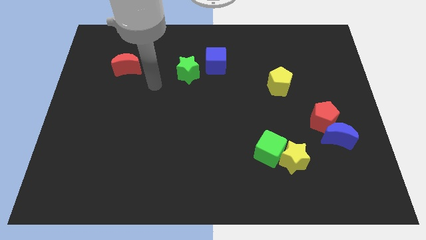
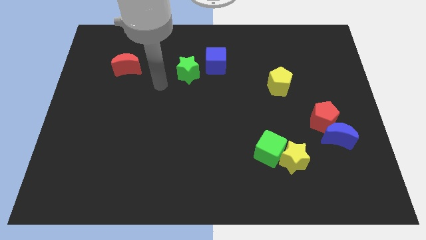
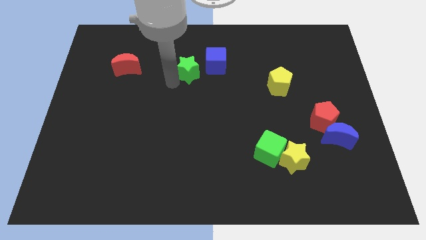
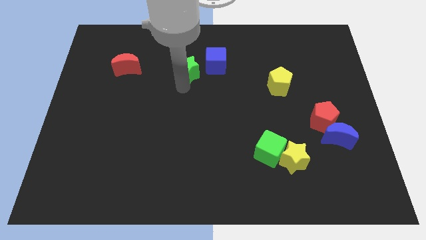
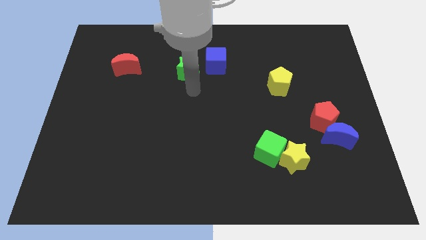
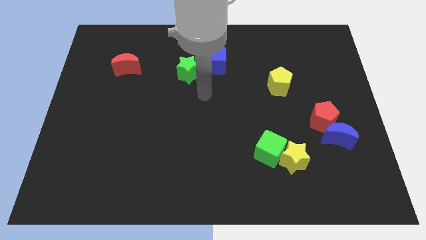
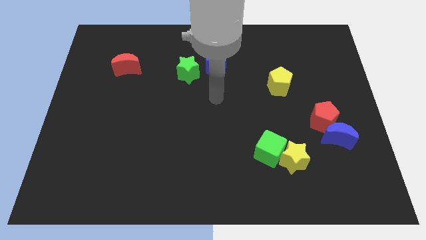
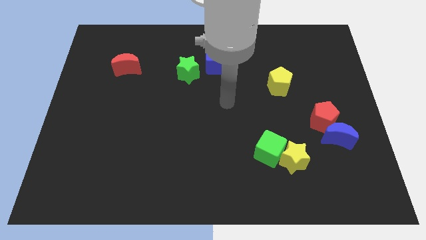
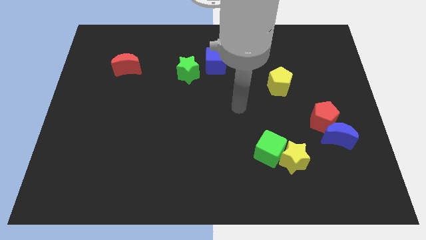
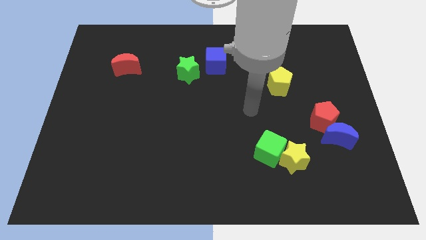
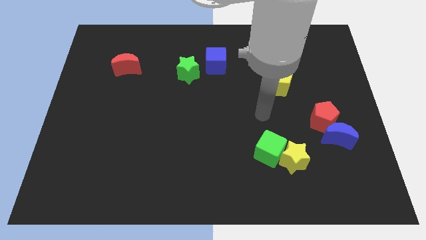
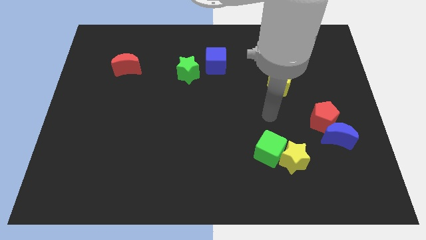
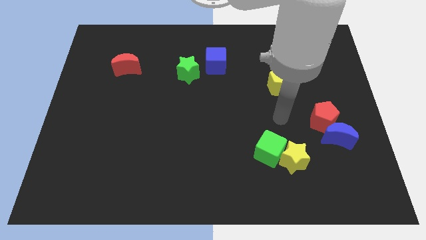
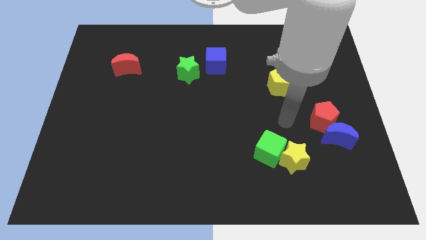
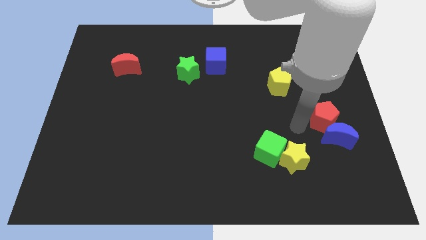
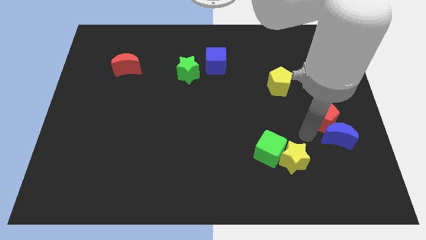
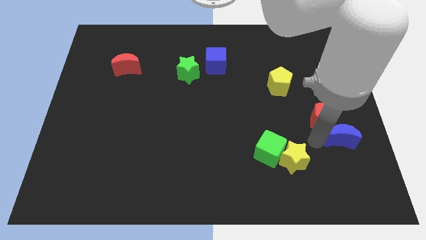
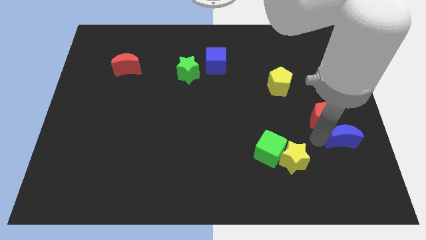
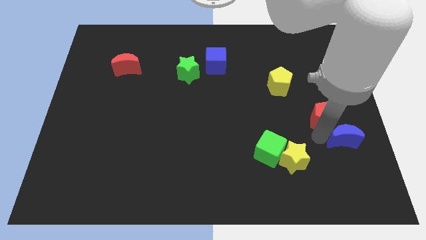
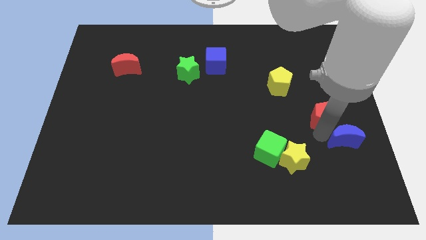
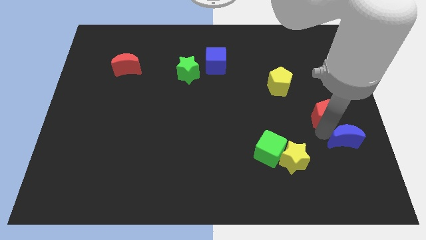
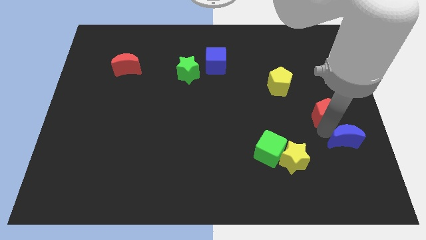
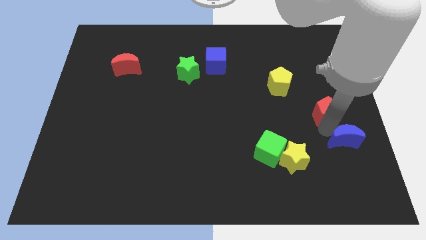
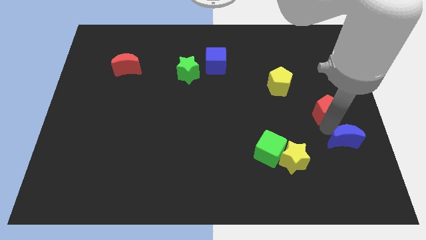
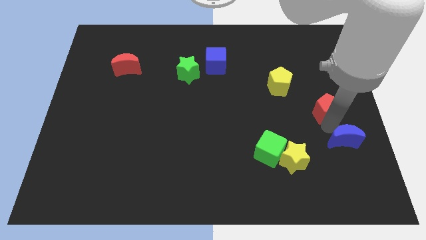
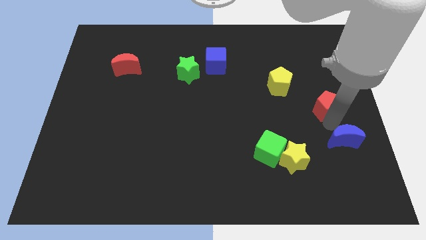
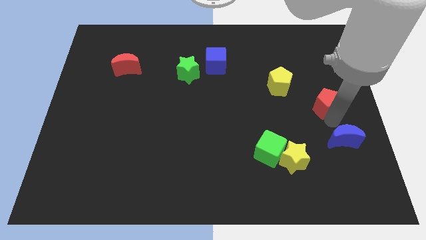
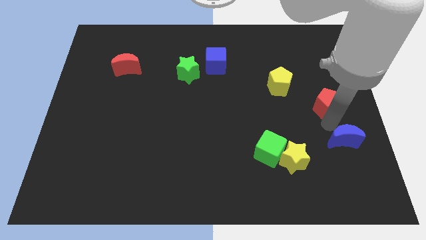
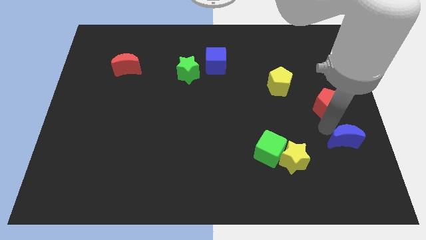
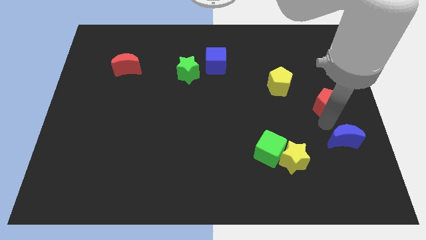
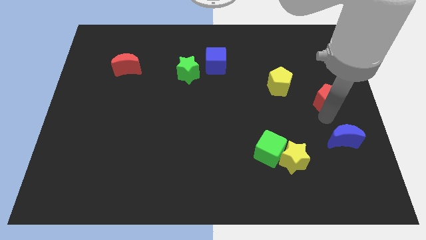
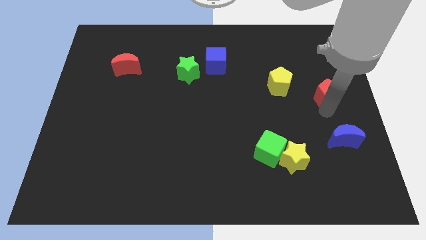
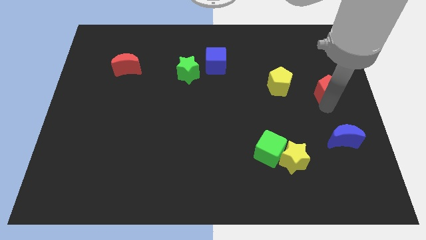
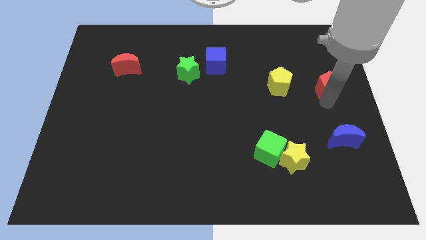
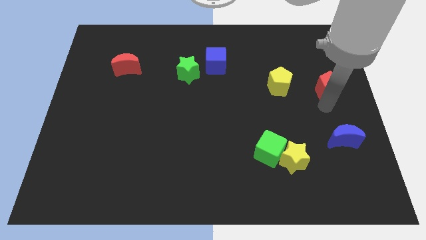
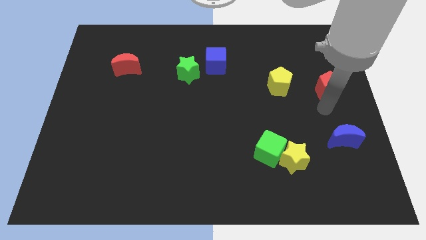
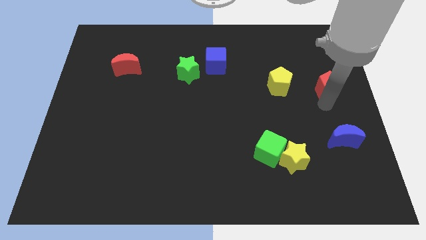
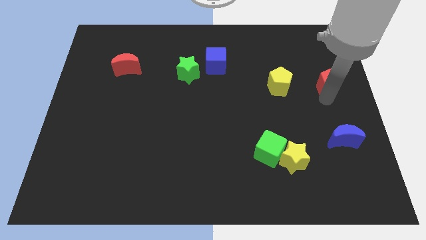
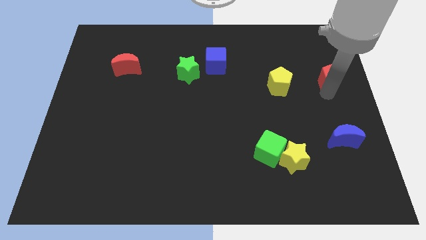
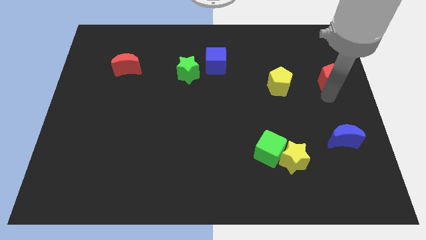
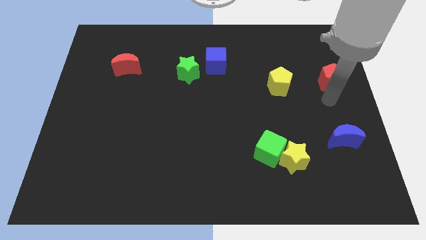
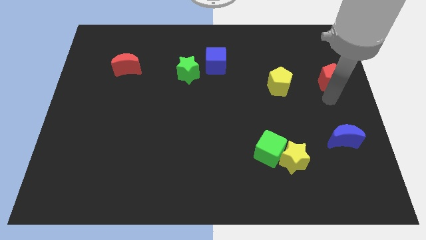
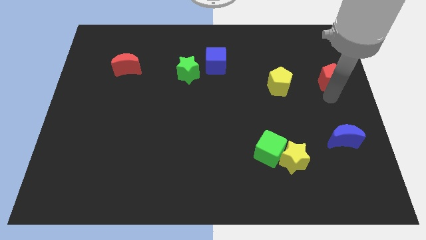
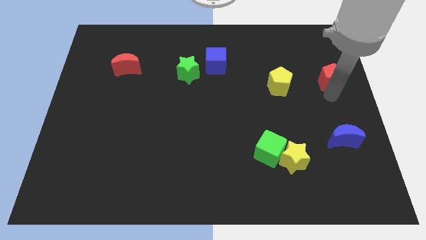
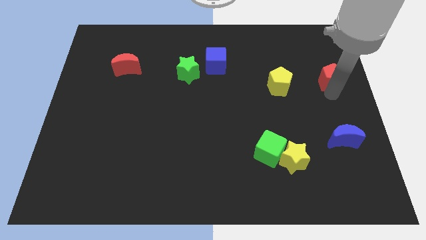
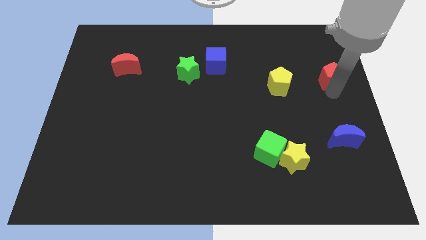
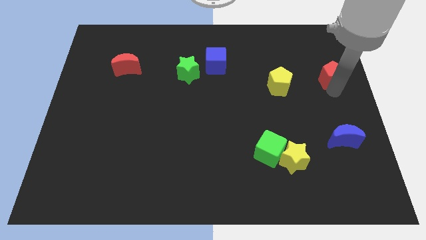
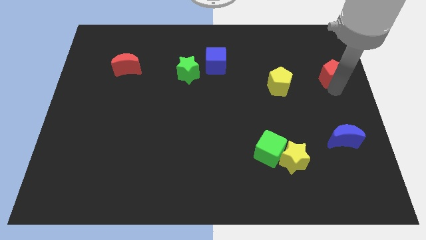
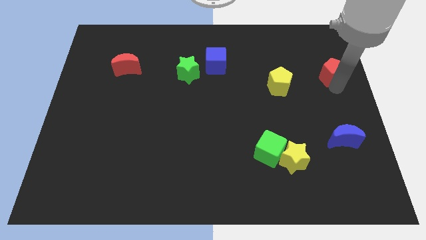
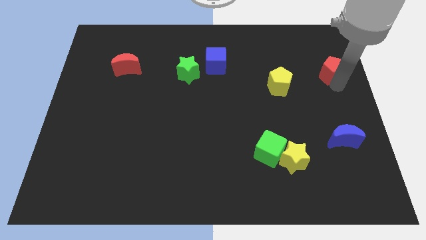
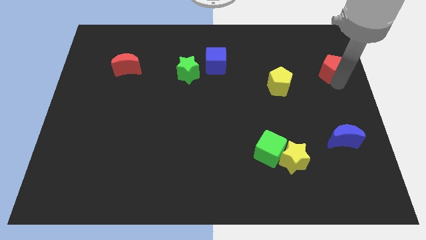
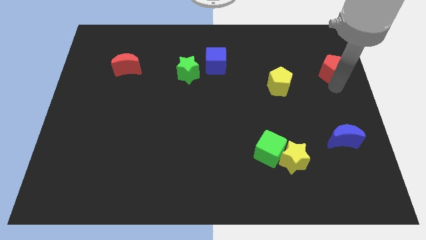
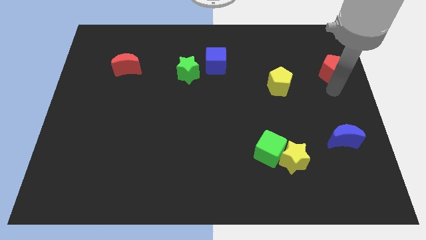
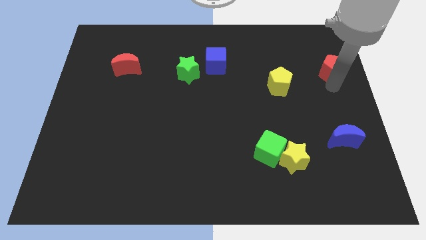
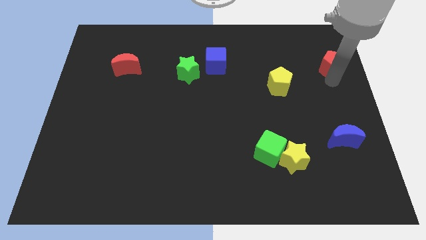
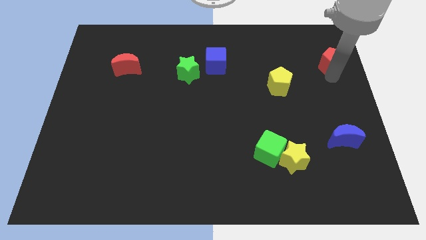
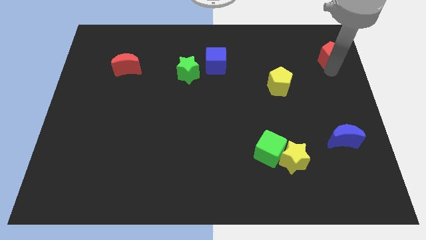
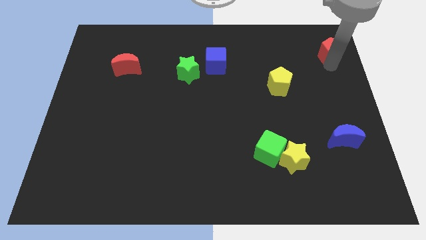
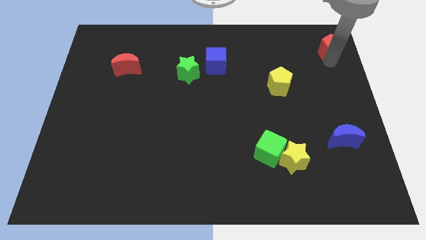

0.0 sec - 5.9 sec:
move the red pentagon to the upper right corner

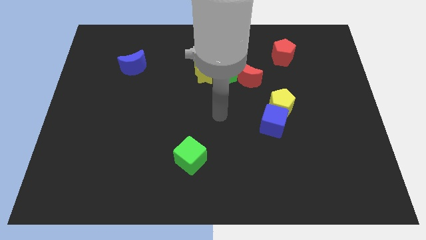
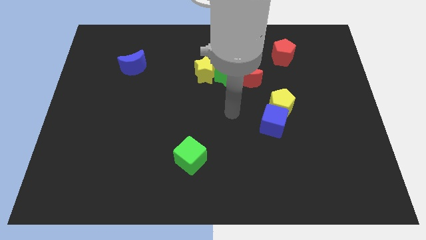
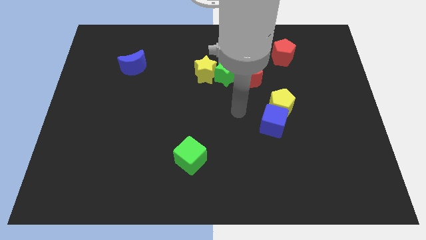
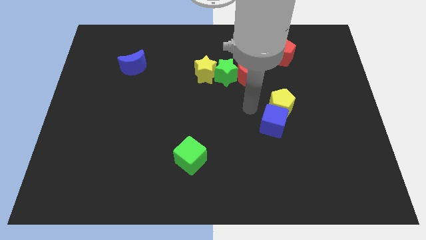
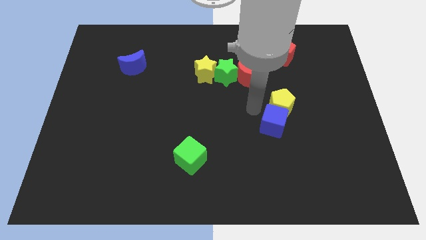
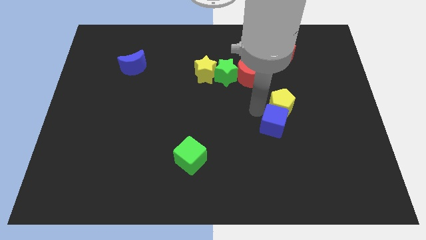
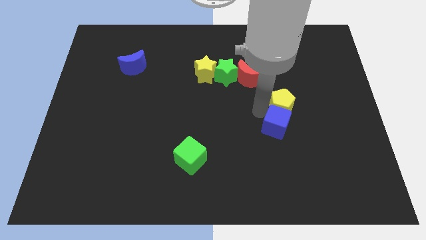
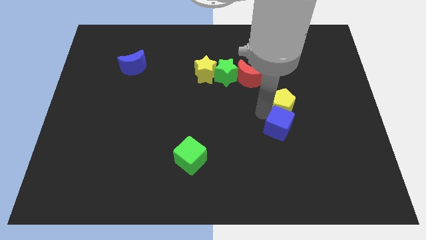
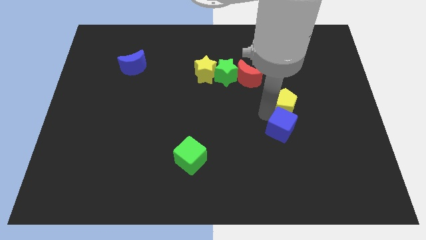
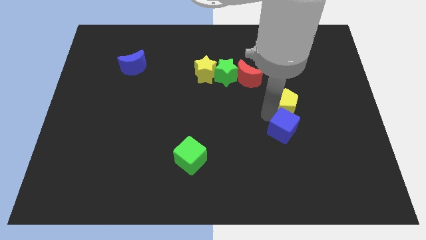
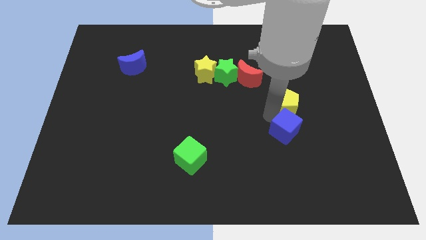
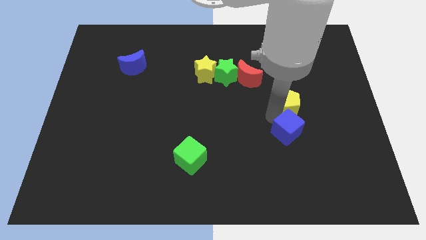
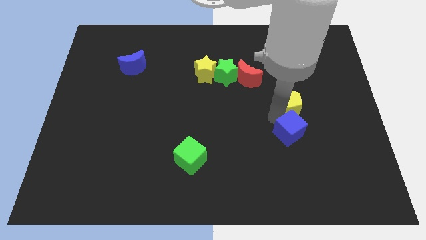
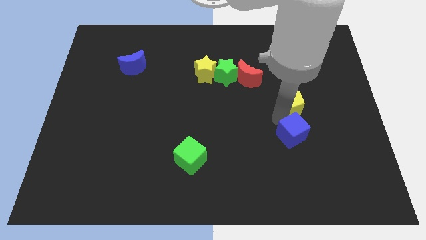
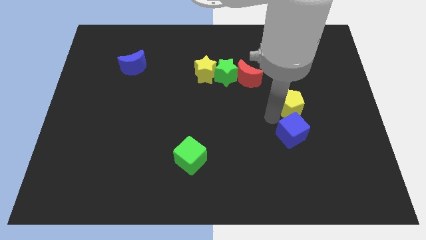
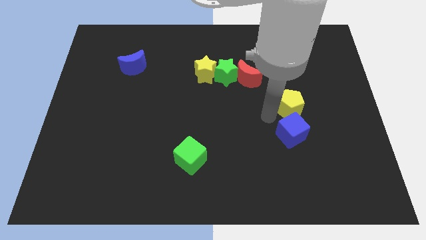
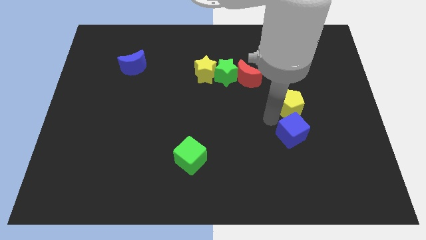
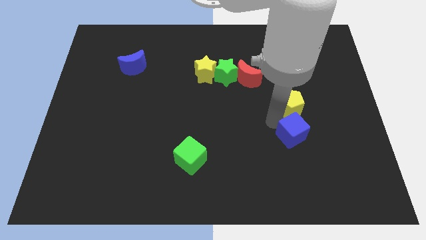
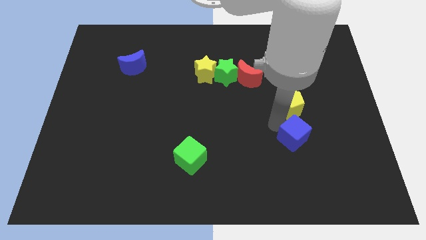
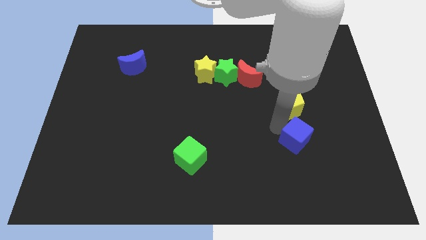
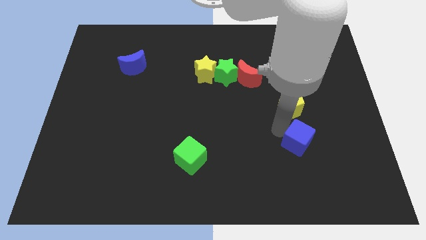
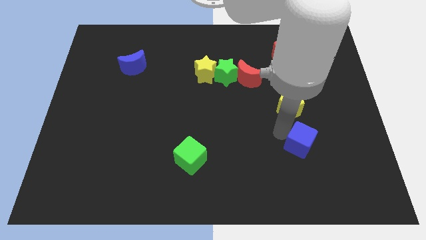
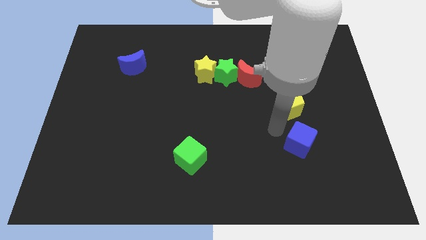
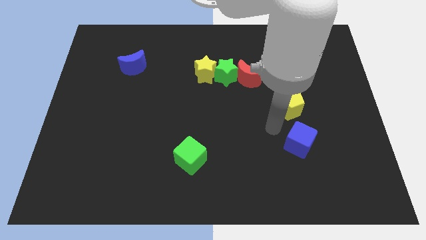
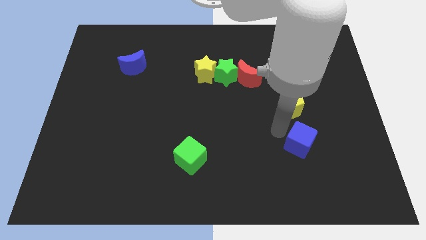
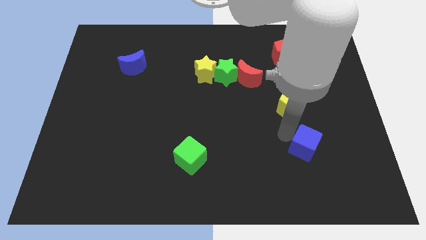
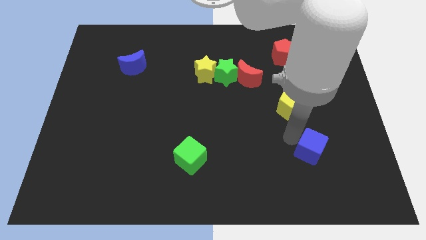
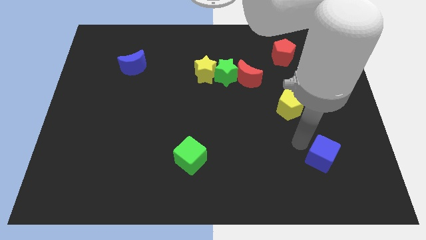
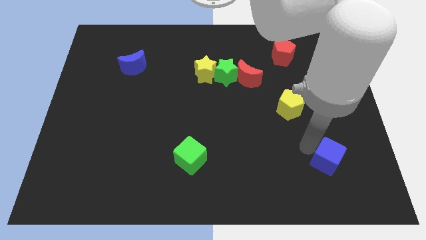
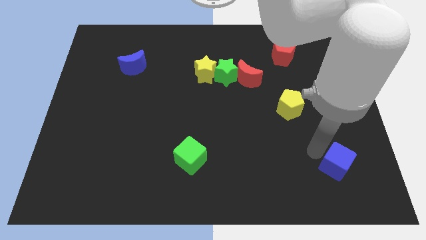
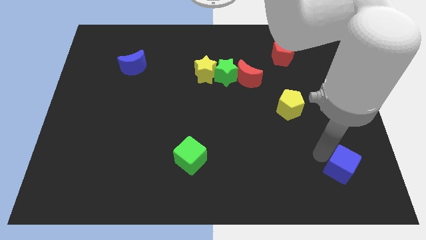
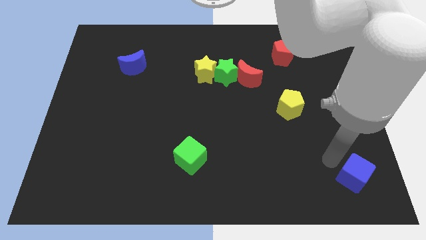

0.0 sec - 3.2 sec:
move the blue cube to the lower right corner
